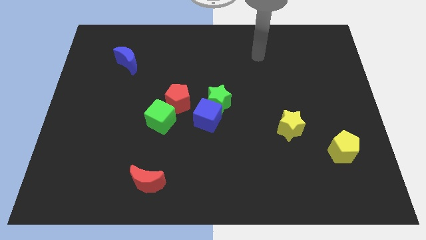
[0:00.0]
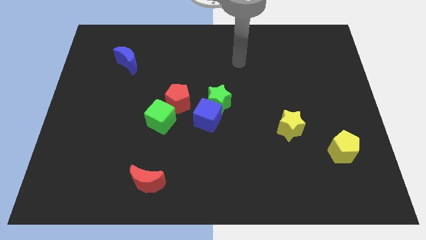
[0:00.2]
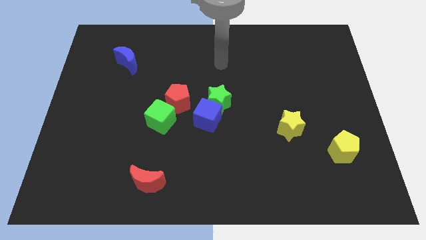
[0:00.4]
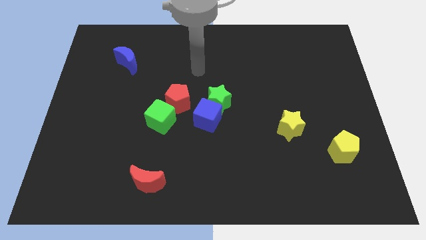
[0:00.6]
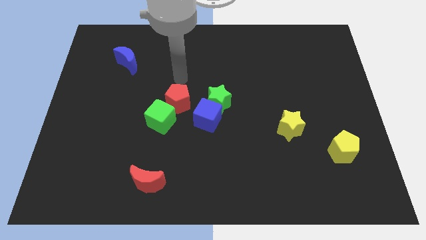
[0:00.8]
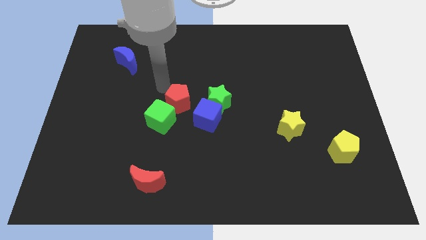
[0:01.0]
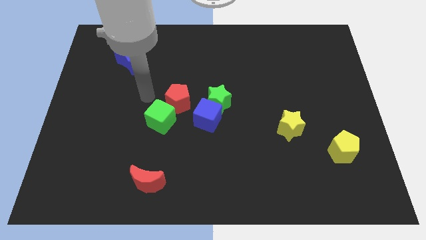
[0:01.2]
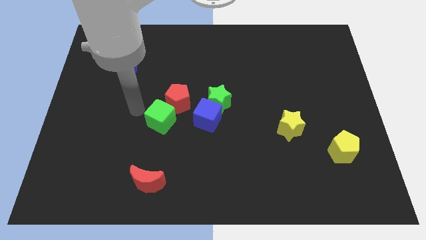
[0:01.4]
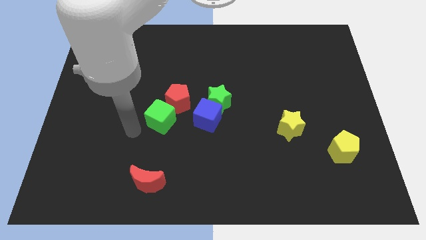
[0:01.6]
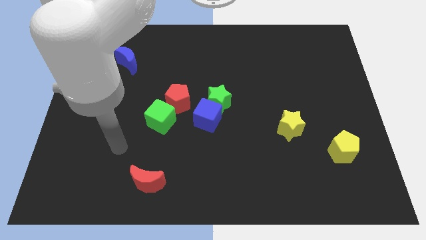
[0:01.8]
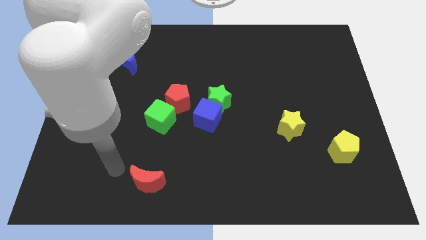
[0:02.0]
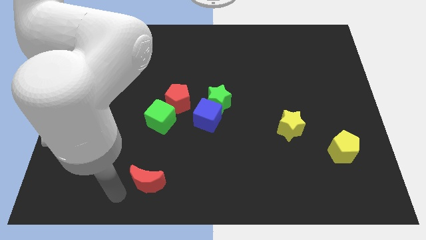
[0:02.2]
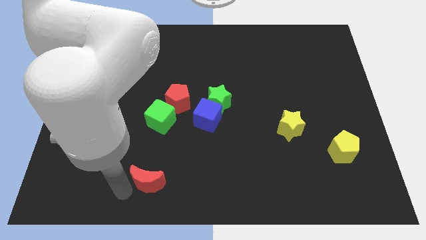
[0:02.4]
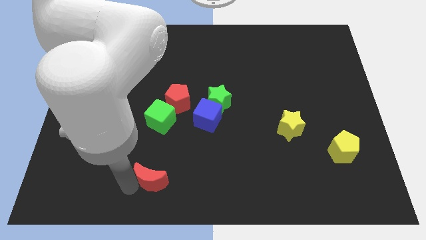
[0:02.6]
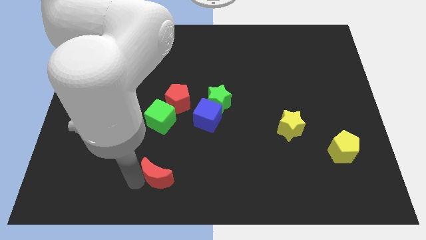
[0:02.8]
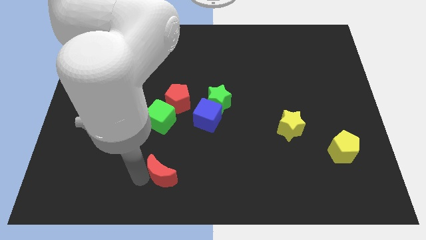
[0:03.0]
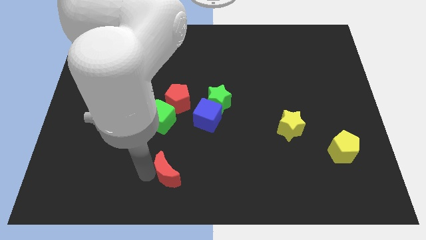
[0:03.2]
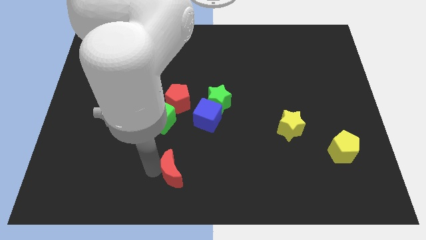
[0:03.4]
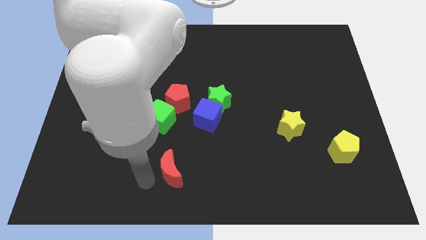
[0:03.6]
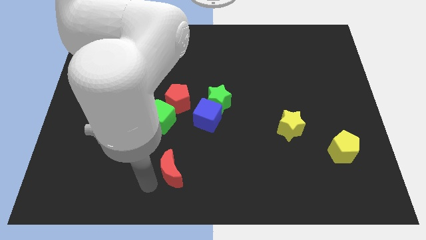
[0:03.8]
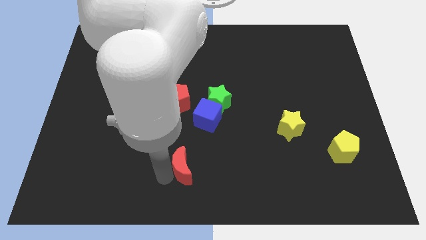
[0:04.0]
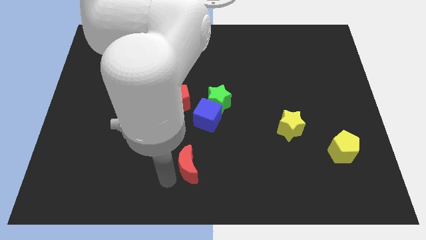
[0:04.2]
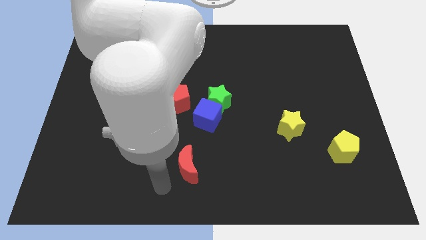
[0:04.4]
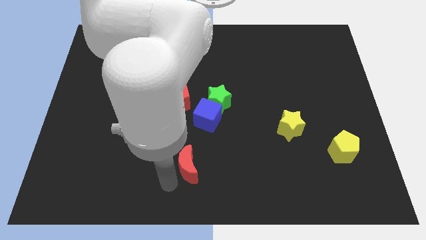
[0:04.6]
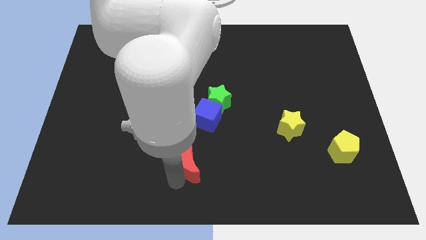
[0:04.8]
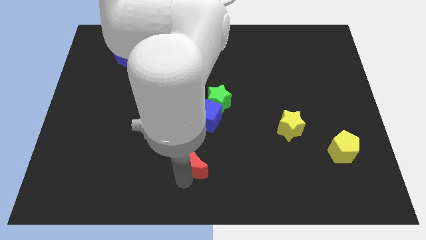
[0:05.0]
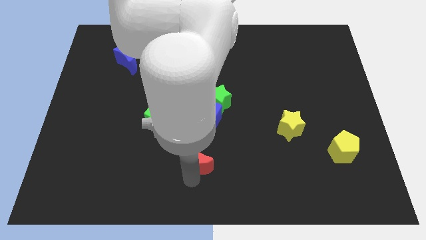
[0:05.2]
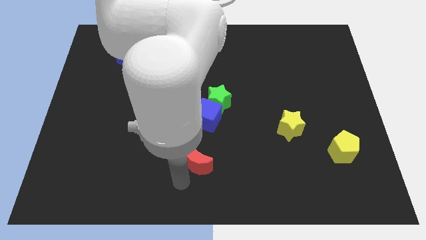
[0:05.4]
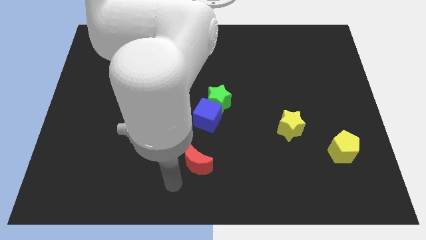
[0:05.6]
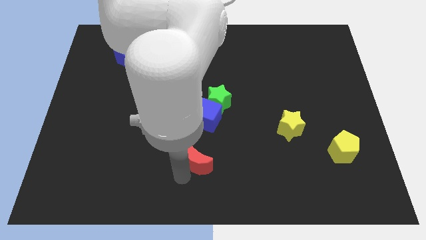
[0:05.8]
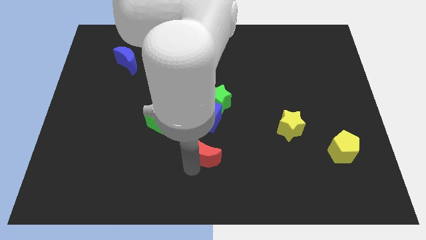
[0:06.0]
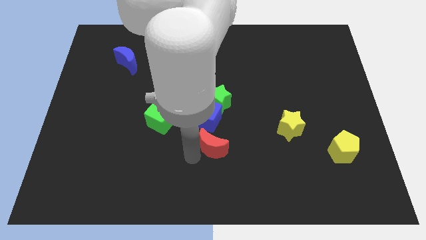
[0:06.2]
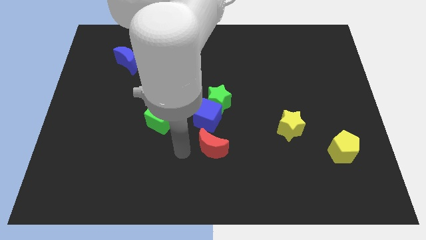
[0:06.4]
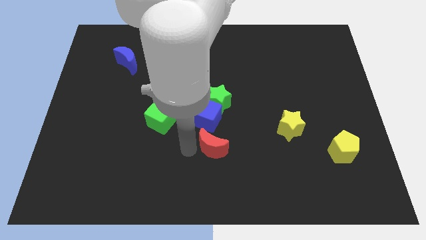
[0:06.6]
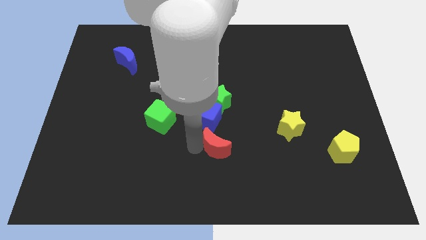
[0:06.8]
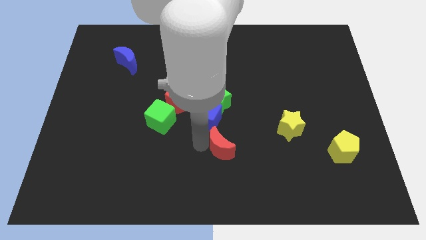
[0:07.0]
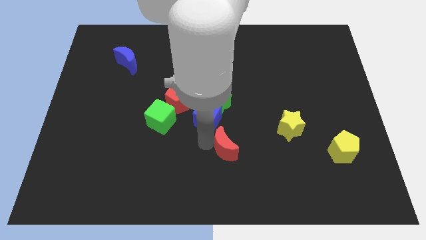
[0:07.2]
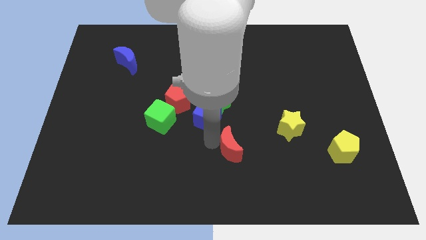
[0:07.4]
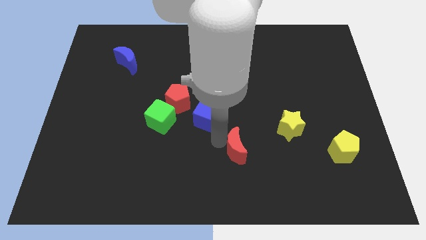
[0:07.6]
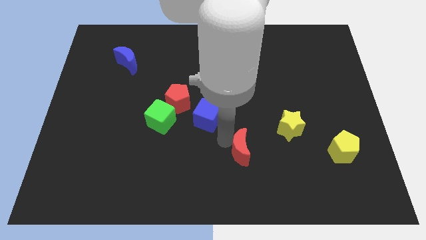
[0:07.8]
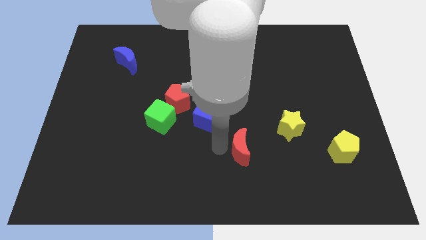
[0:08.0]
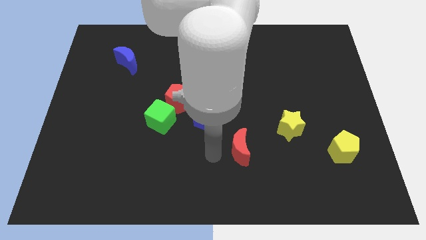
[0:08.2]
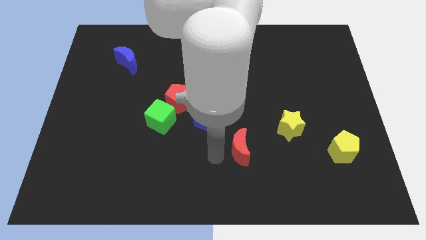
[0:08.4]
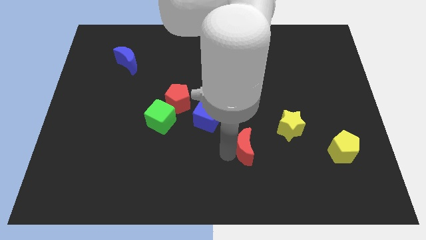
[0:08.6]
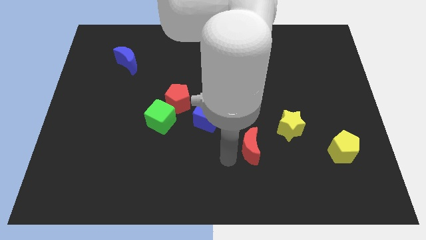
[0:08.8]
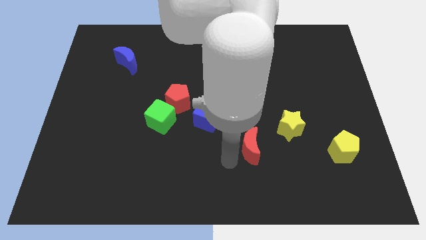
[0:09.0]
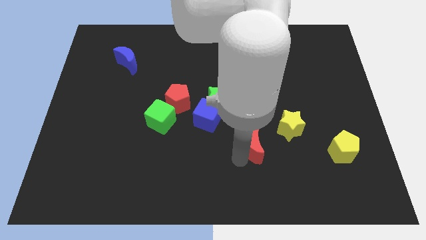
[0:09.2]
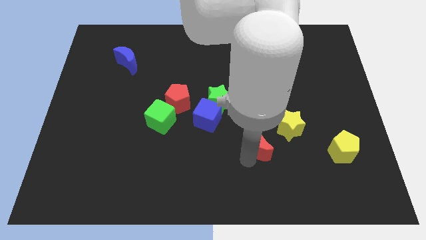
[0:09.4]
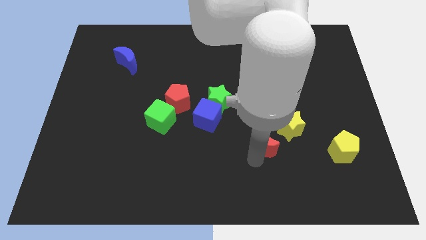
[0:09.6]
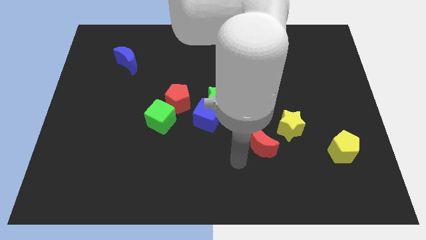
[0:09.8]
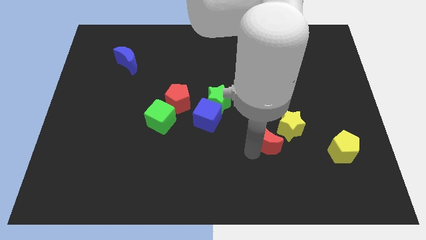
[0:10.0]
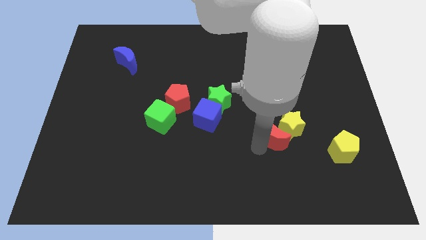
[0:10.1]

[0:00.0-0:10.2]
push the red moon to the yellow star

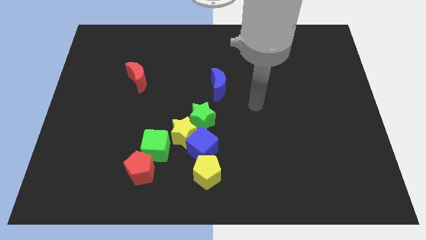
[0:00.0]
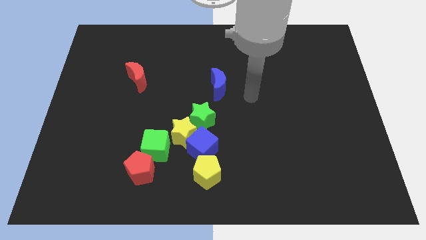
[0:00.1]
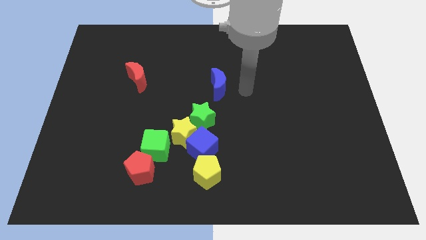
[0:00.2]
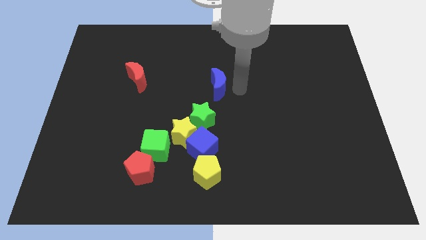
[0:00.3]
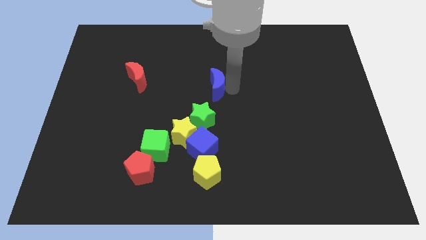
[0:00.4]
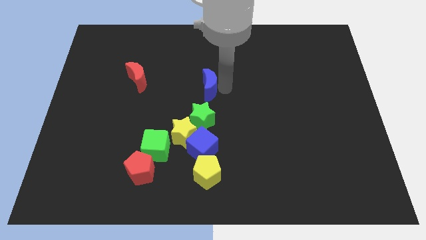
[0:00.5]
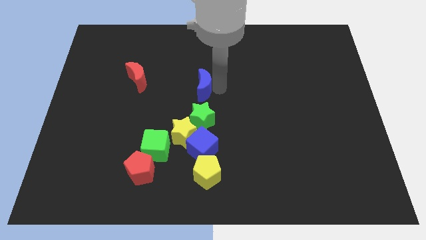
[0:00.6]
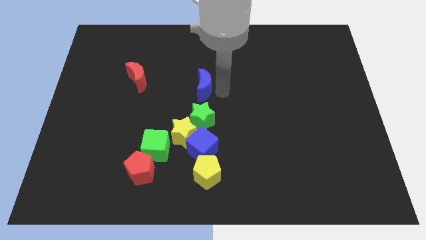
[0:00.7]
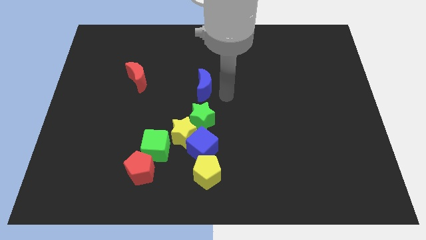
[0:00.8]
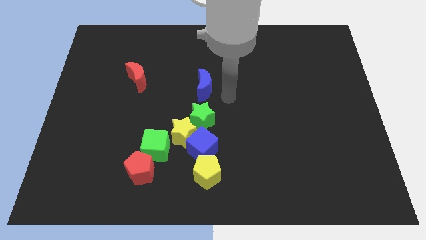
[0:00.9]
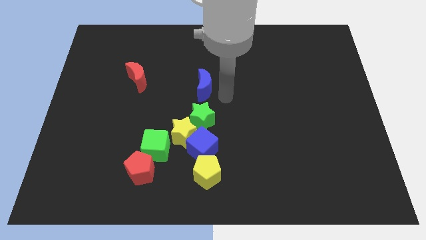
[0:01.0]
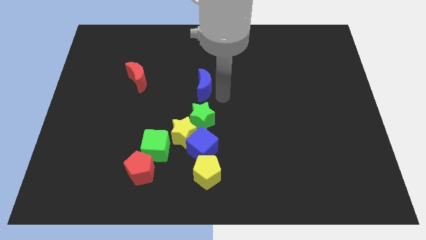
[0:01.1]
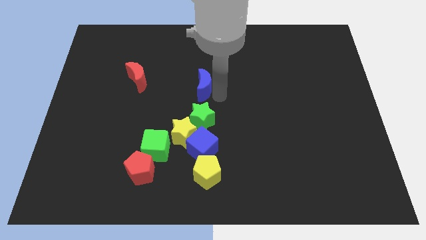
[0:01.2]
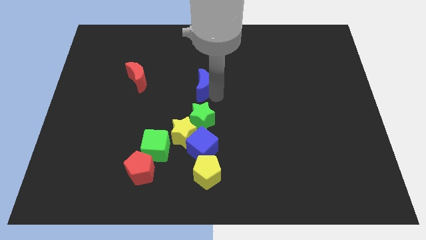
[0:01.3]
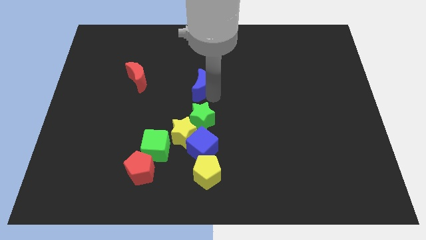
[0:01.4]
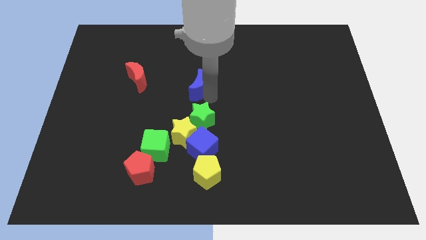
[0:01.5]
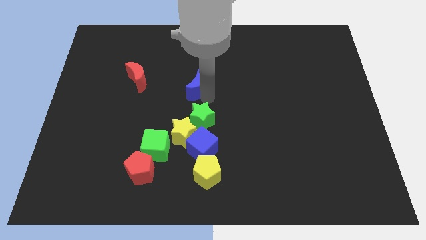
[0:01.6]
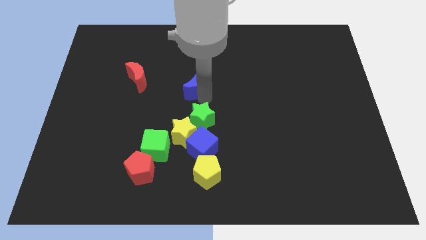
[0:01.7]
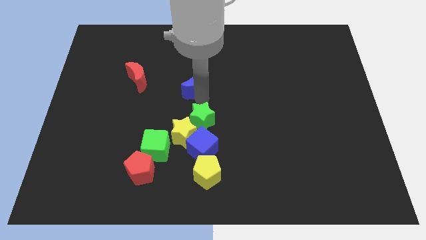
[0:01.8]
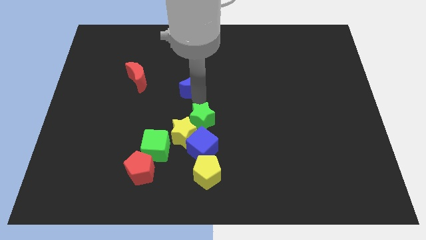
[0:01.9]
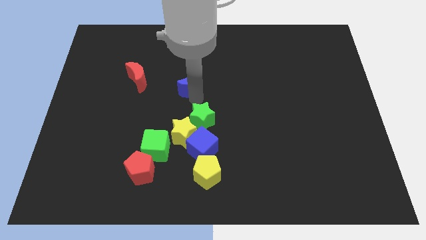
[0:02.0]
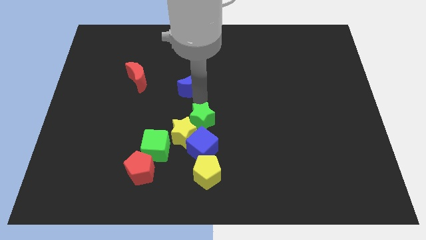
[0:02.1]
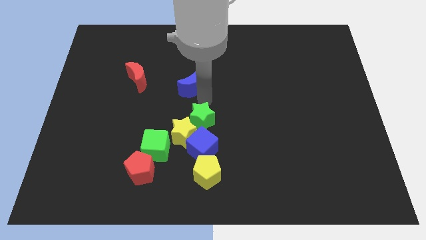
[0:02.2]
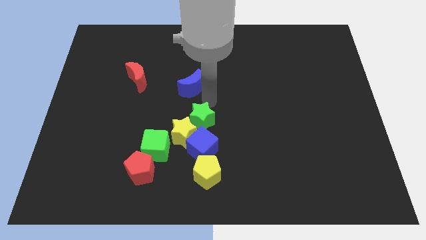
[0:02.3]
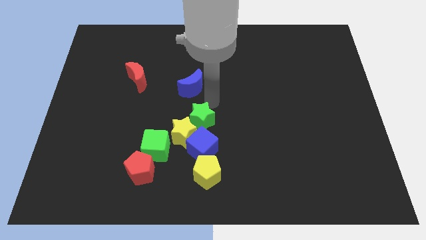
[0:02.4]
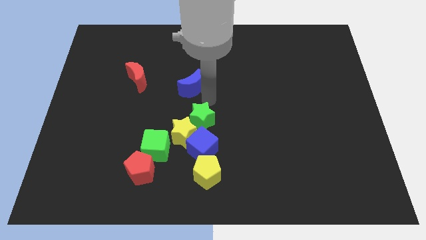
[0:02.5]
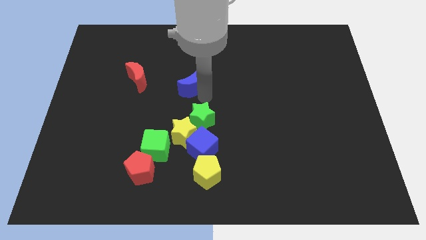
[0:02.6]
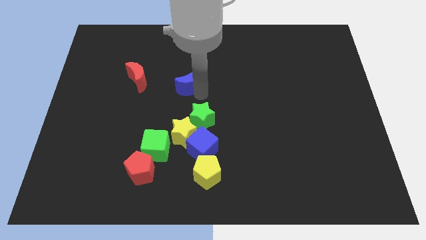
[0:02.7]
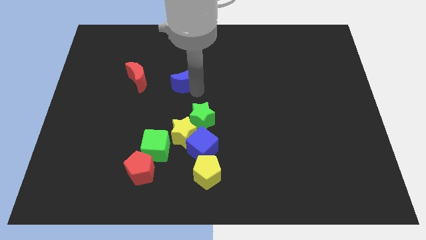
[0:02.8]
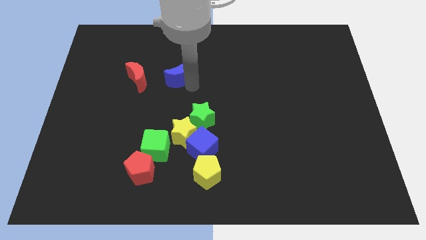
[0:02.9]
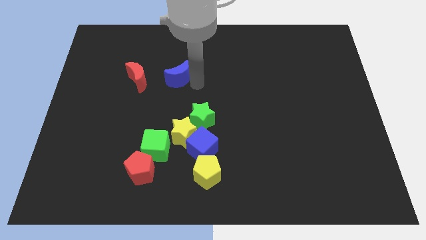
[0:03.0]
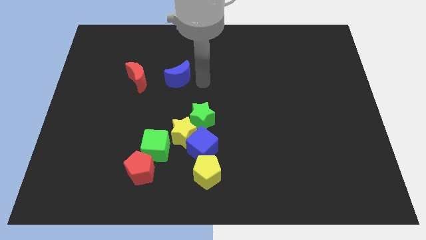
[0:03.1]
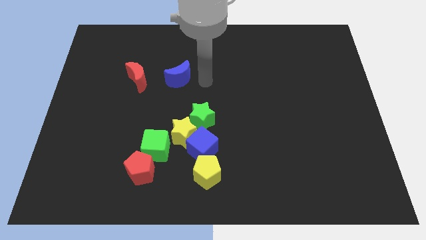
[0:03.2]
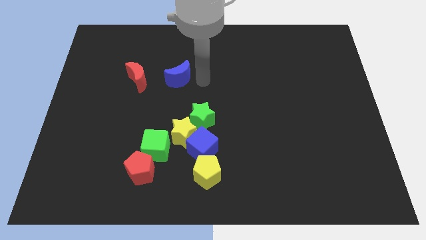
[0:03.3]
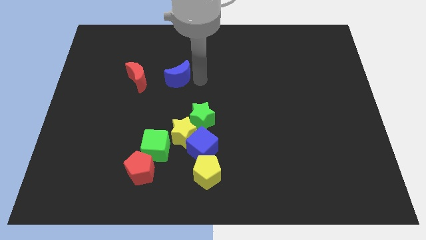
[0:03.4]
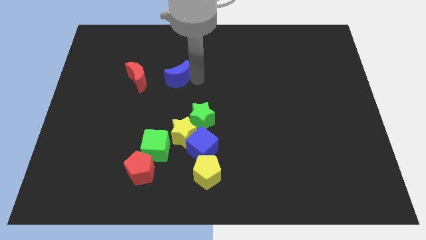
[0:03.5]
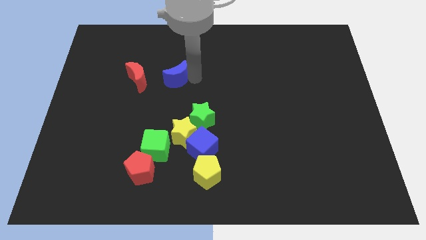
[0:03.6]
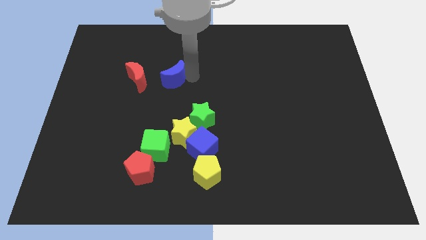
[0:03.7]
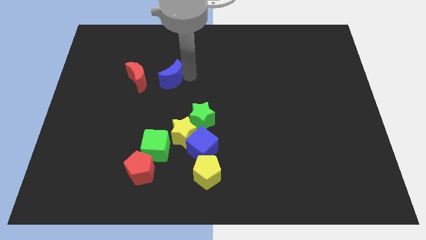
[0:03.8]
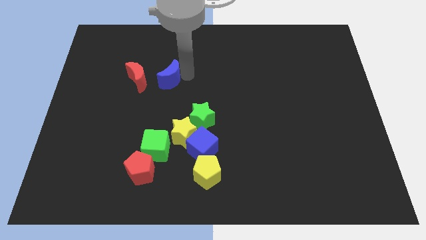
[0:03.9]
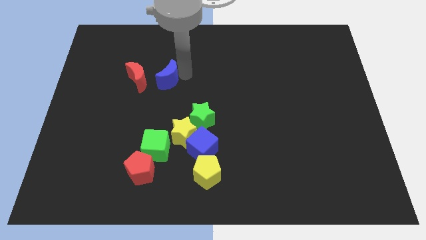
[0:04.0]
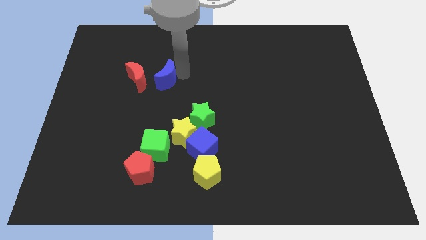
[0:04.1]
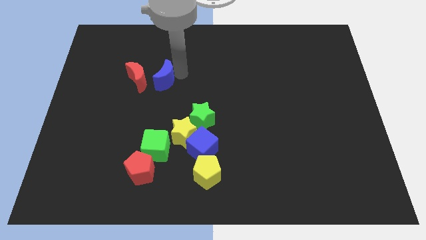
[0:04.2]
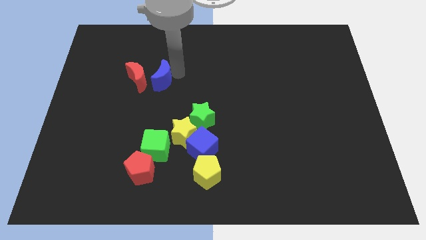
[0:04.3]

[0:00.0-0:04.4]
slide the blue moon to the red moon
